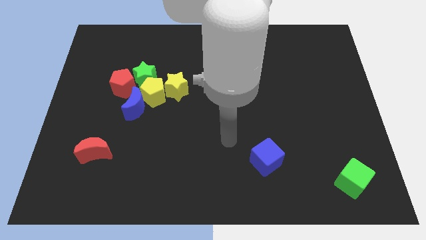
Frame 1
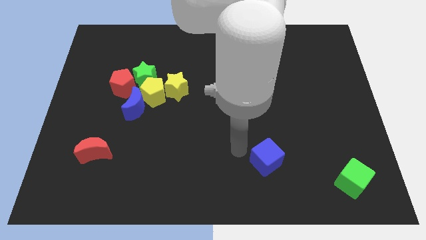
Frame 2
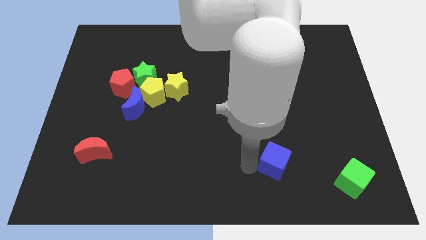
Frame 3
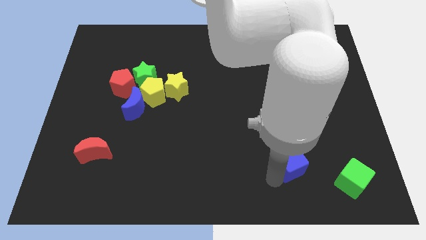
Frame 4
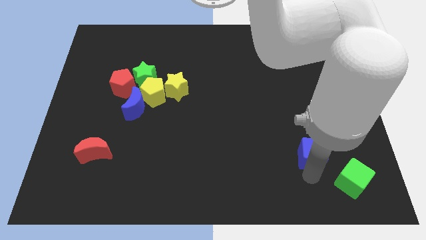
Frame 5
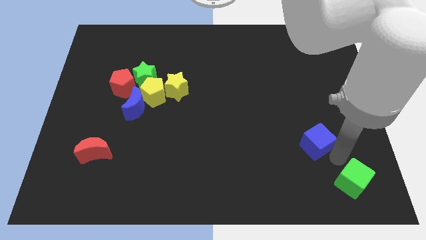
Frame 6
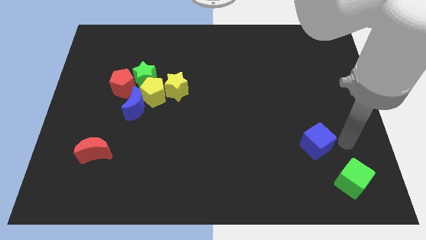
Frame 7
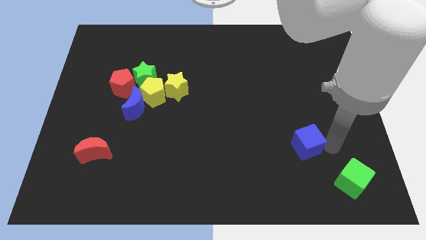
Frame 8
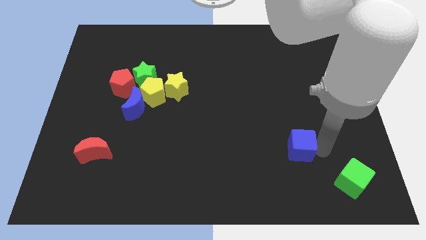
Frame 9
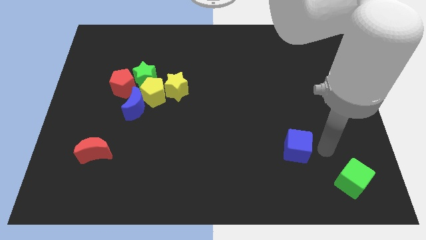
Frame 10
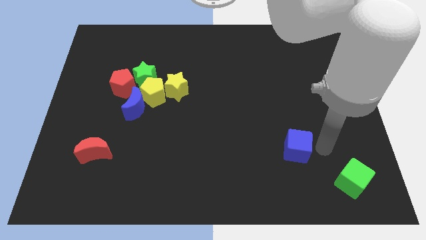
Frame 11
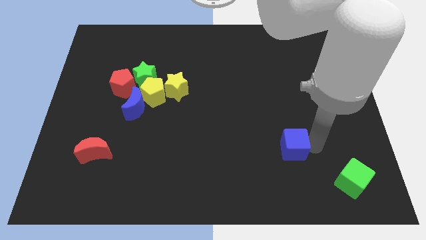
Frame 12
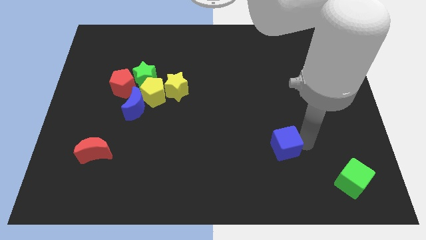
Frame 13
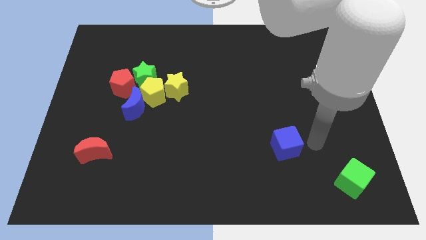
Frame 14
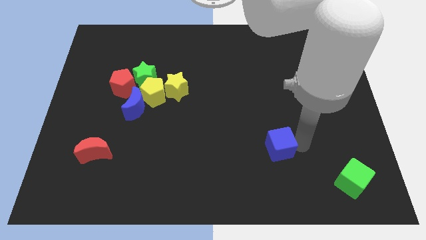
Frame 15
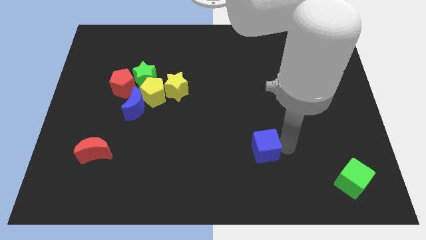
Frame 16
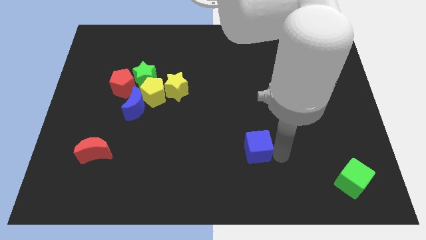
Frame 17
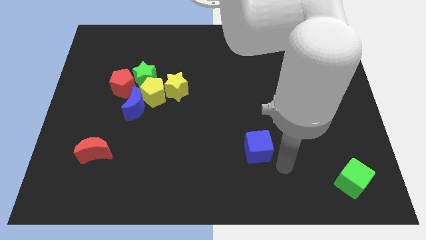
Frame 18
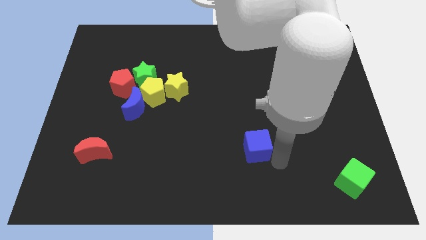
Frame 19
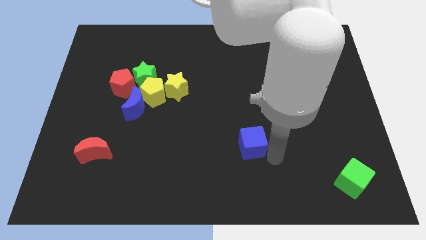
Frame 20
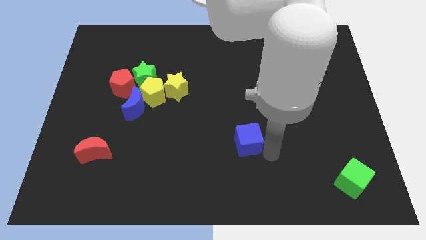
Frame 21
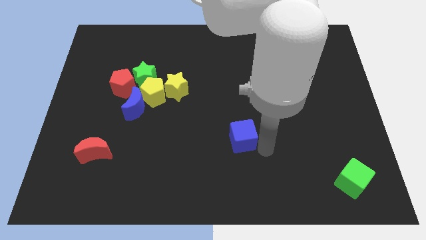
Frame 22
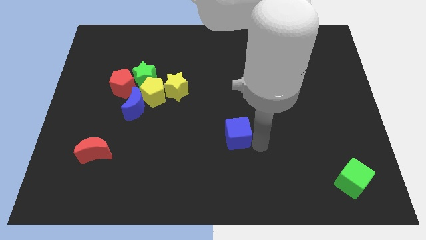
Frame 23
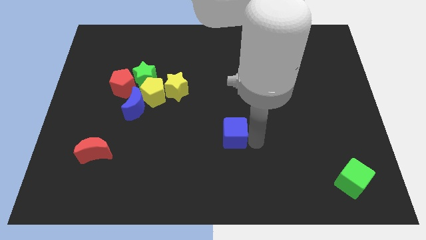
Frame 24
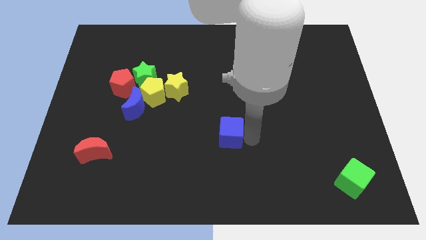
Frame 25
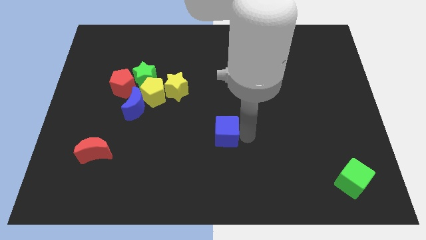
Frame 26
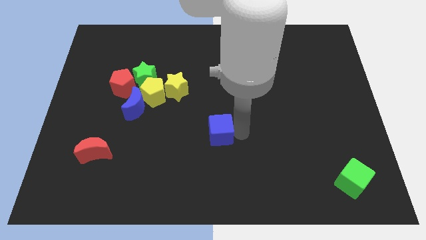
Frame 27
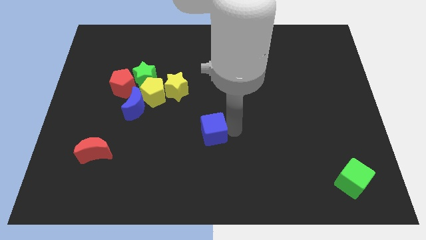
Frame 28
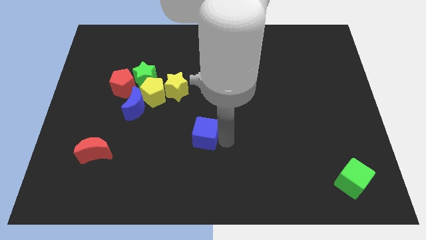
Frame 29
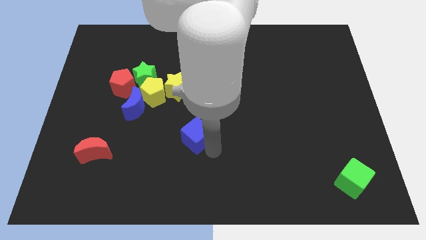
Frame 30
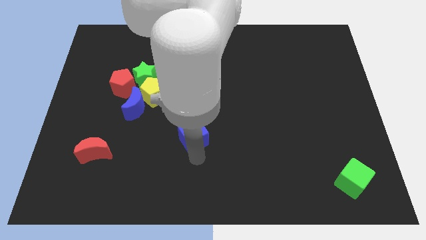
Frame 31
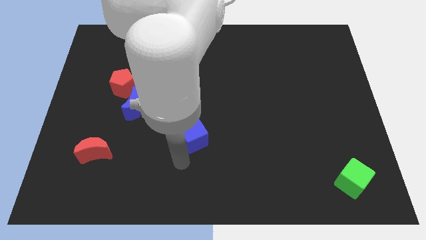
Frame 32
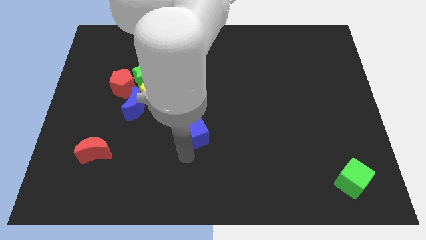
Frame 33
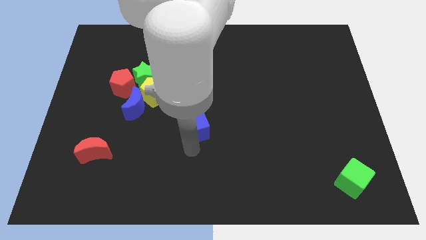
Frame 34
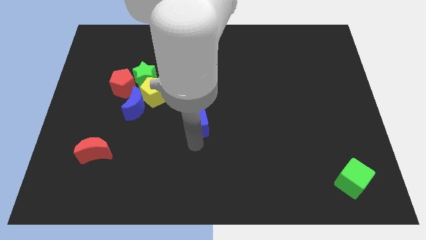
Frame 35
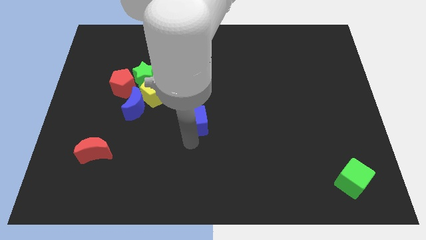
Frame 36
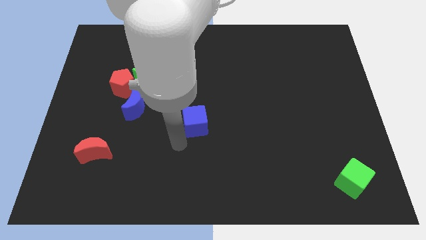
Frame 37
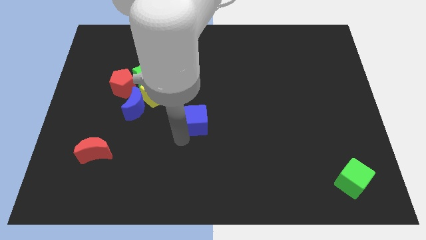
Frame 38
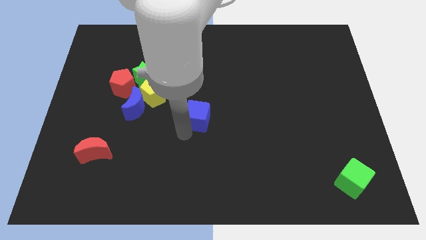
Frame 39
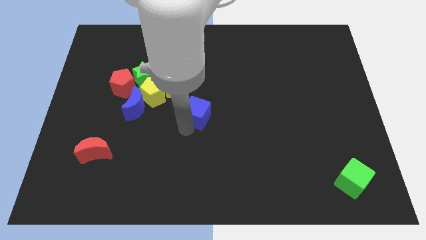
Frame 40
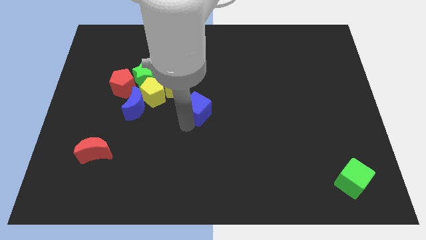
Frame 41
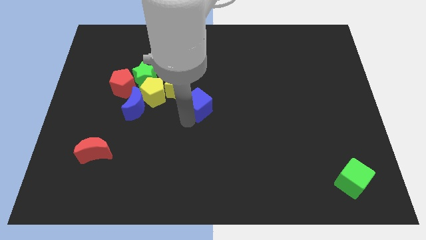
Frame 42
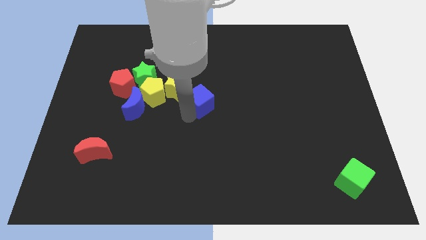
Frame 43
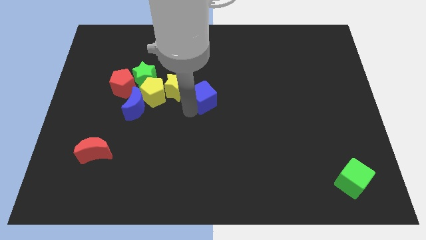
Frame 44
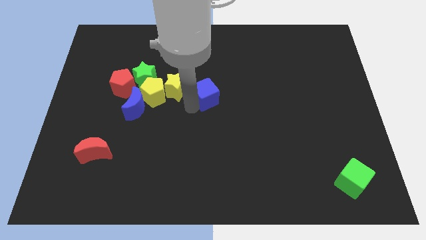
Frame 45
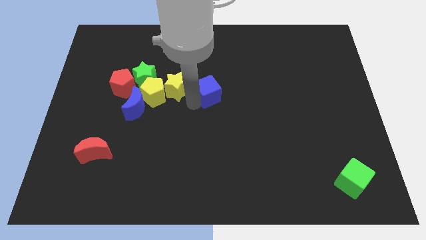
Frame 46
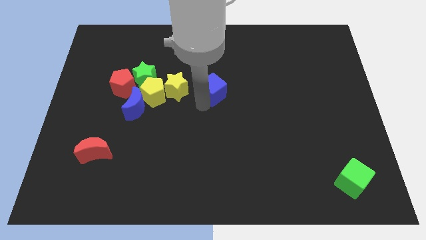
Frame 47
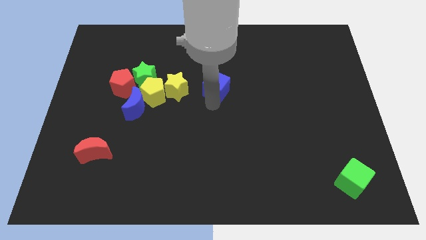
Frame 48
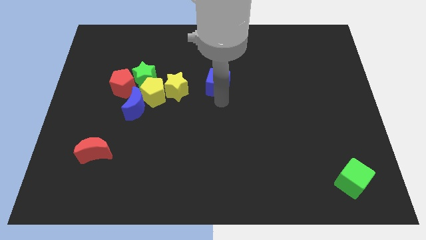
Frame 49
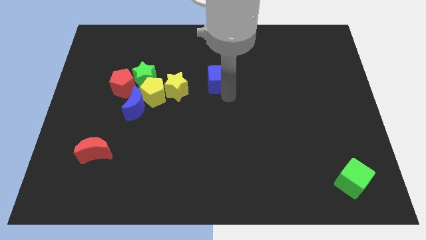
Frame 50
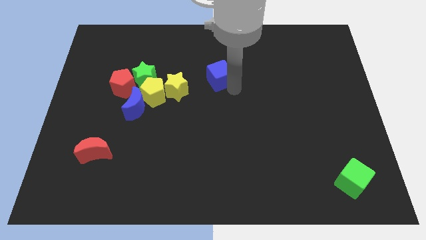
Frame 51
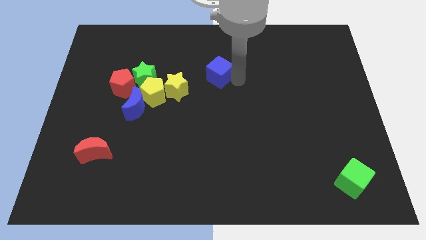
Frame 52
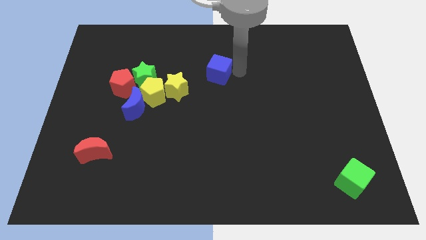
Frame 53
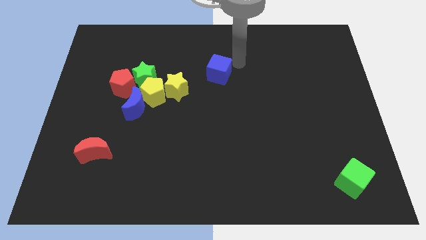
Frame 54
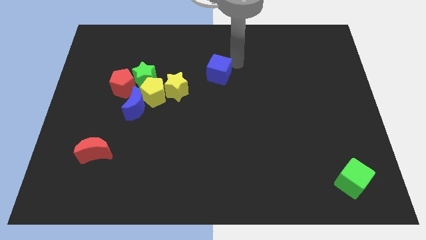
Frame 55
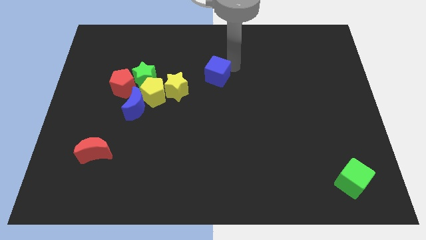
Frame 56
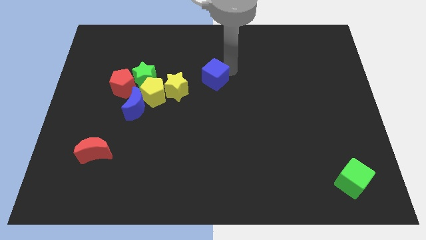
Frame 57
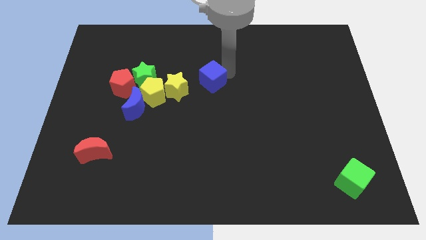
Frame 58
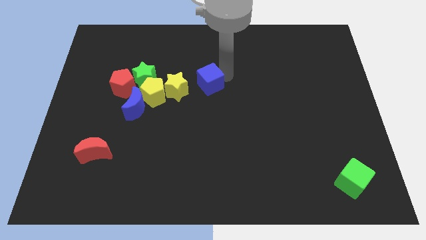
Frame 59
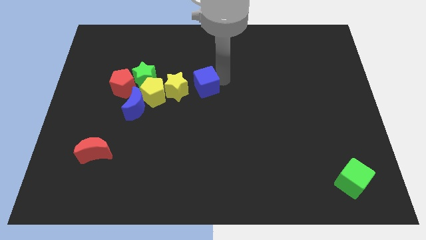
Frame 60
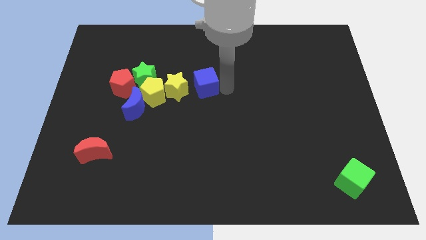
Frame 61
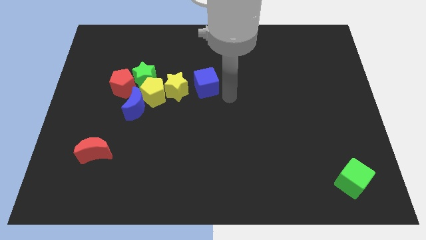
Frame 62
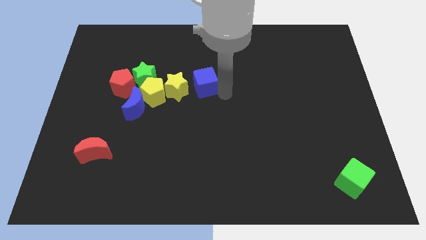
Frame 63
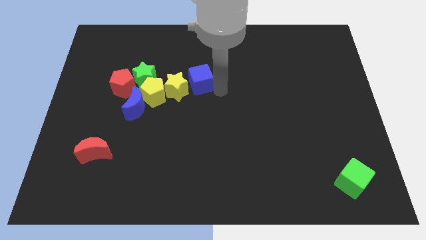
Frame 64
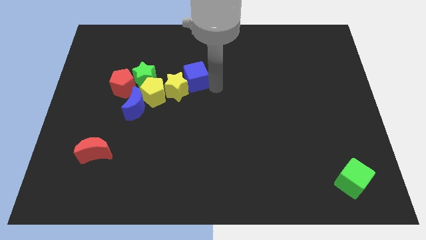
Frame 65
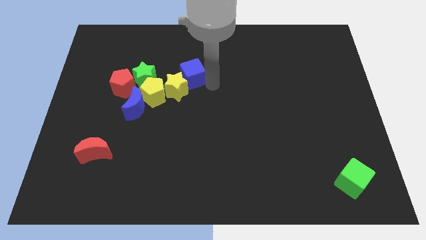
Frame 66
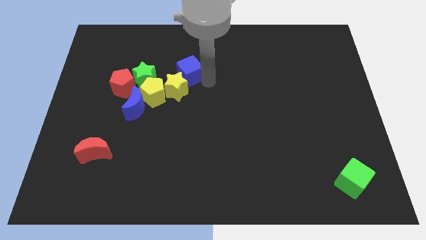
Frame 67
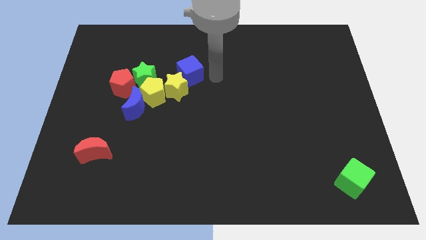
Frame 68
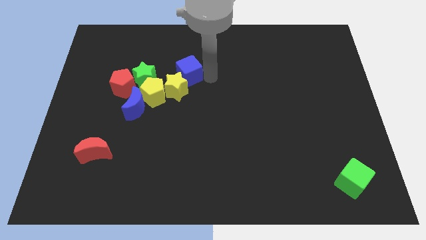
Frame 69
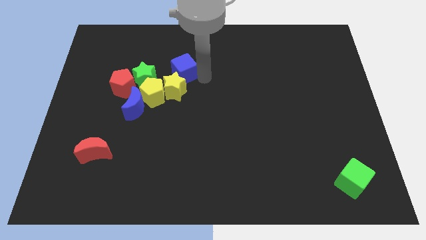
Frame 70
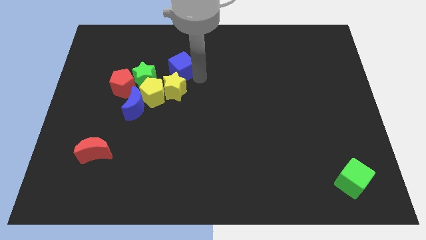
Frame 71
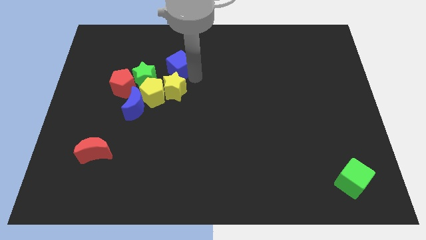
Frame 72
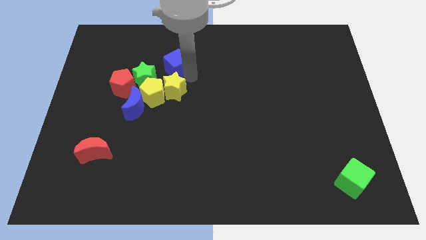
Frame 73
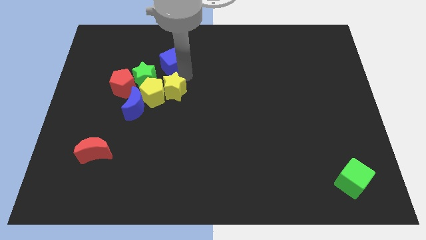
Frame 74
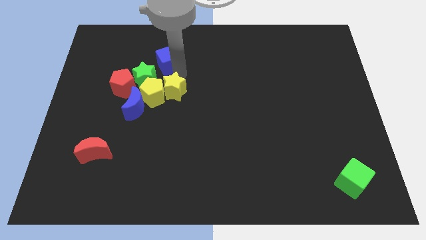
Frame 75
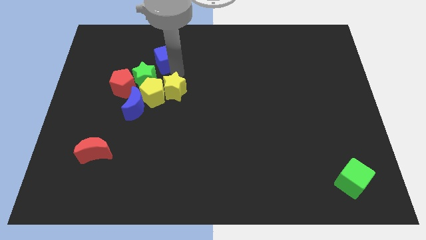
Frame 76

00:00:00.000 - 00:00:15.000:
slide the blue cube to the top right side of the red pentagon
